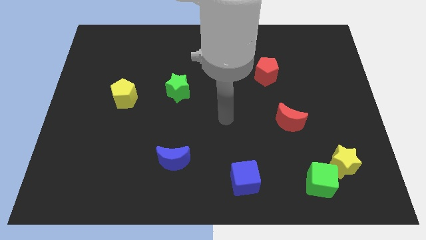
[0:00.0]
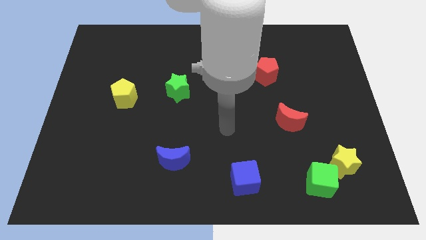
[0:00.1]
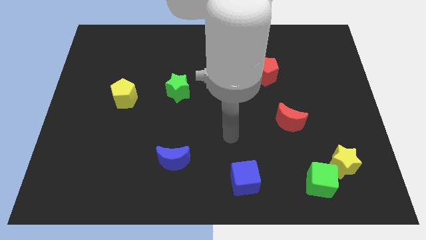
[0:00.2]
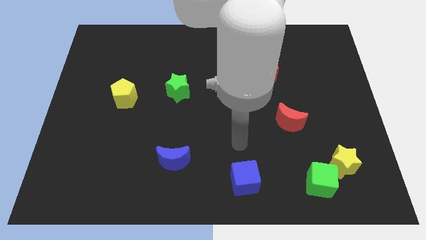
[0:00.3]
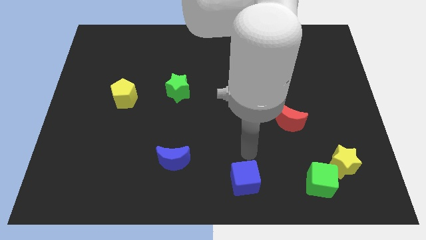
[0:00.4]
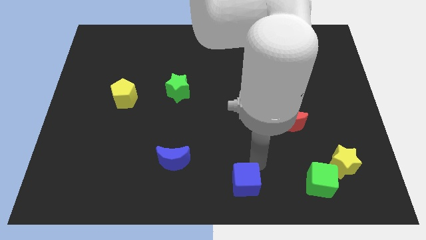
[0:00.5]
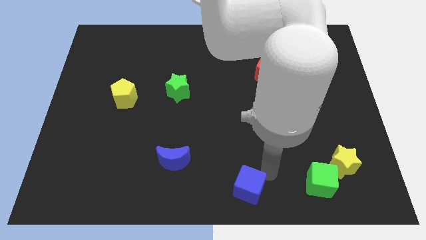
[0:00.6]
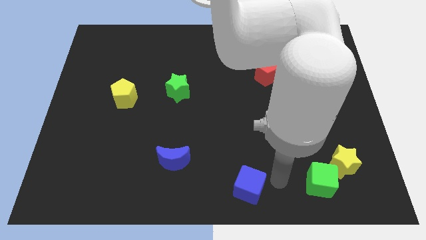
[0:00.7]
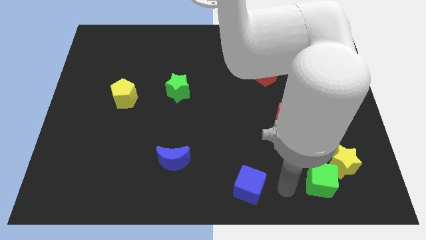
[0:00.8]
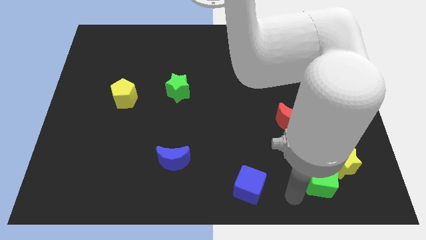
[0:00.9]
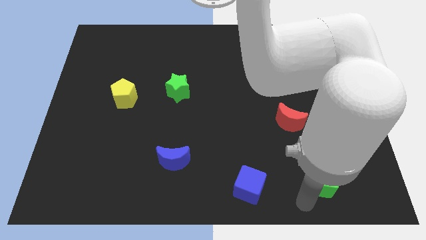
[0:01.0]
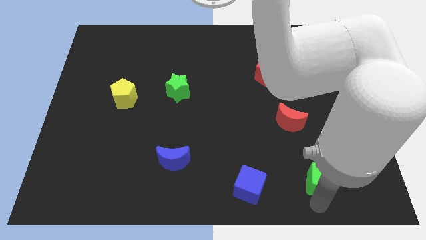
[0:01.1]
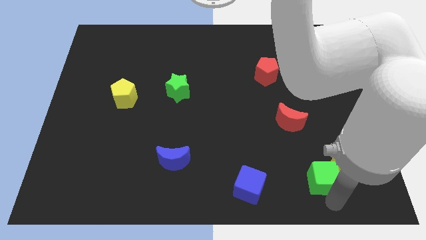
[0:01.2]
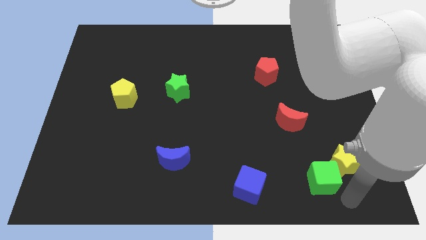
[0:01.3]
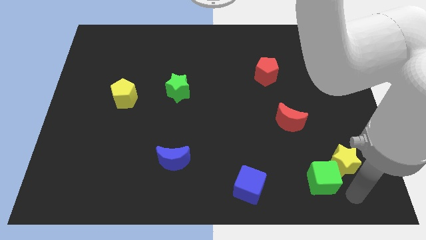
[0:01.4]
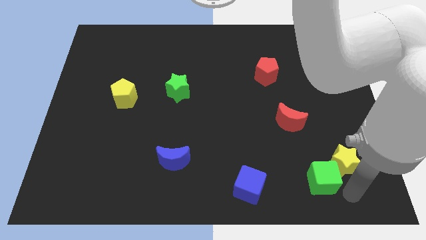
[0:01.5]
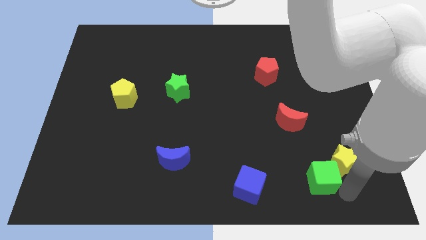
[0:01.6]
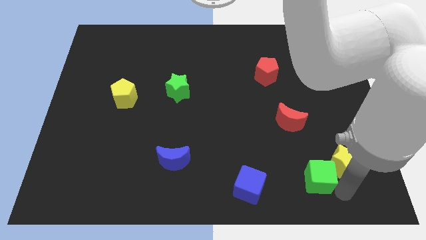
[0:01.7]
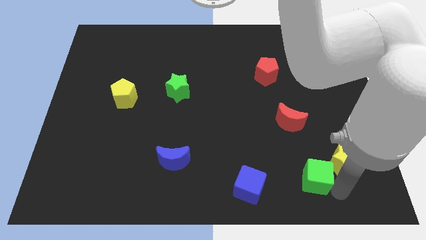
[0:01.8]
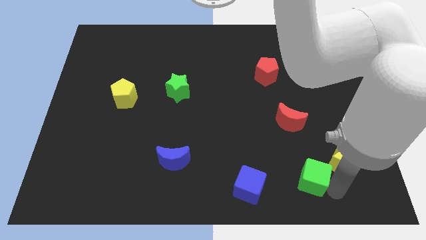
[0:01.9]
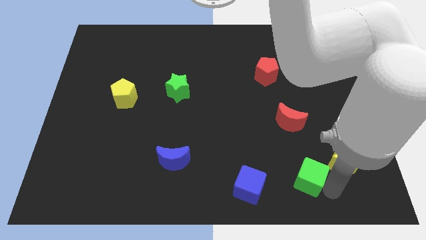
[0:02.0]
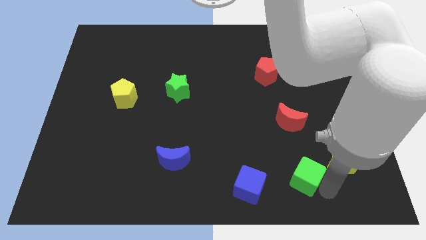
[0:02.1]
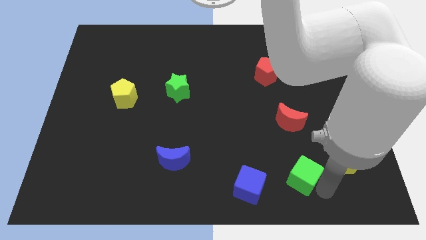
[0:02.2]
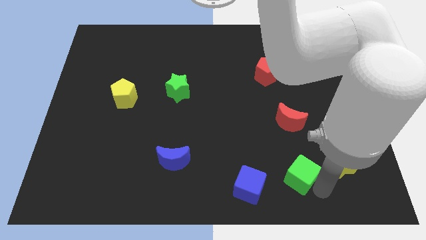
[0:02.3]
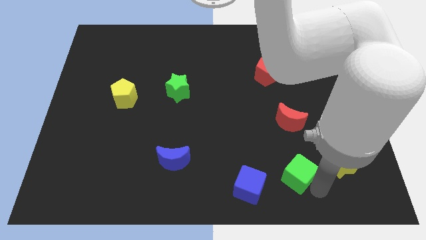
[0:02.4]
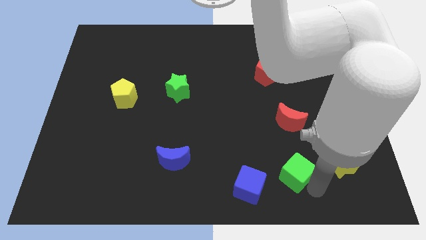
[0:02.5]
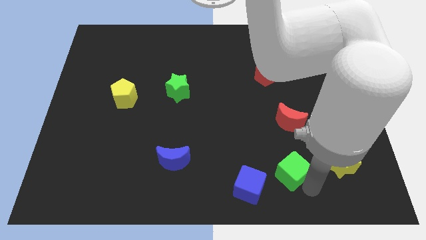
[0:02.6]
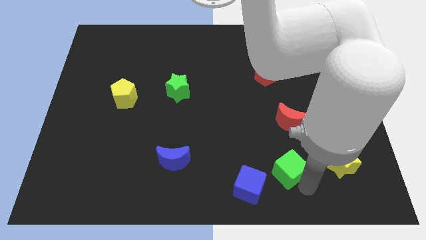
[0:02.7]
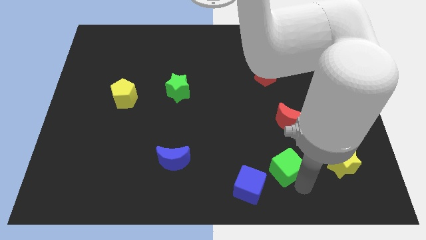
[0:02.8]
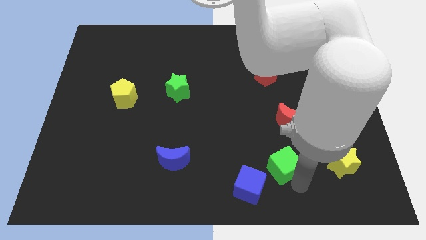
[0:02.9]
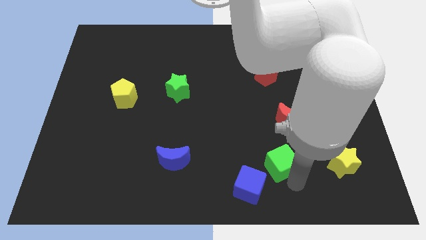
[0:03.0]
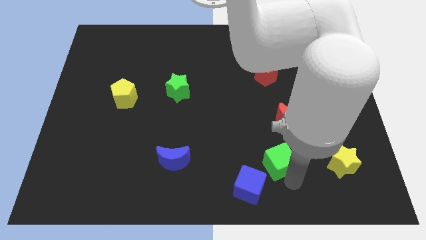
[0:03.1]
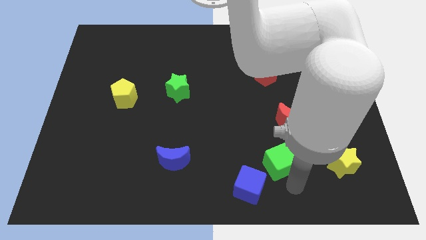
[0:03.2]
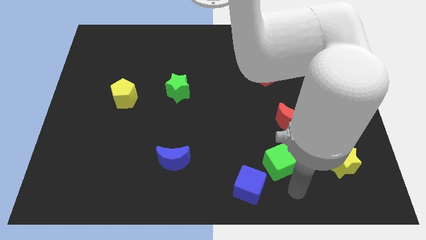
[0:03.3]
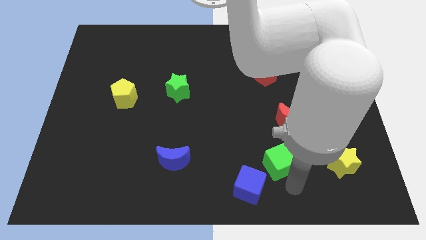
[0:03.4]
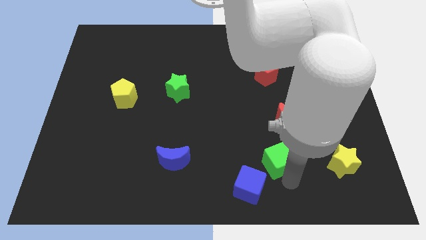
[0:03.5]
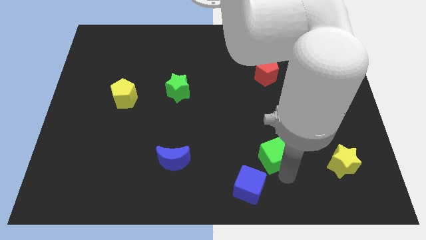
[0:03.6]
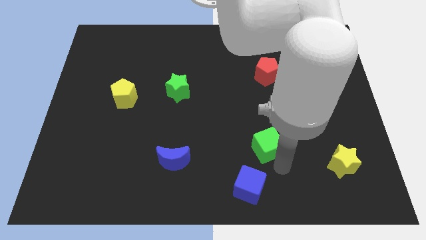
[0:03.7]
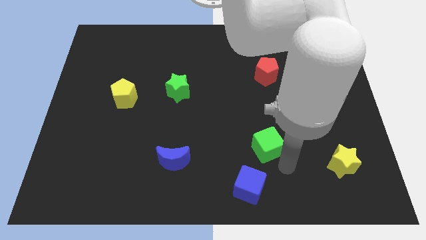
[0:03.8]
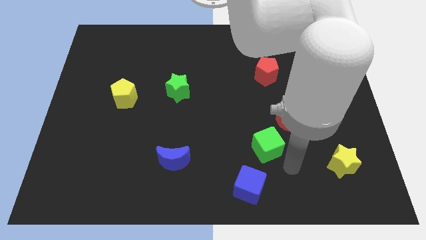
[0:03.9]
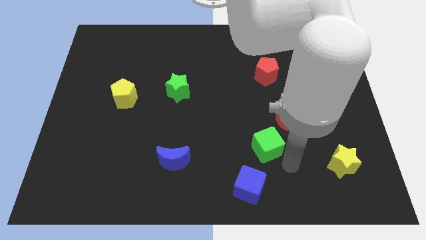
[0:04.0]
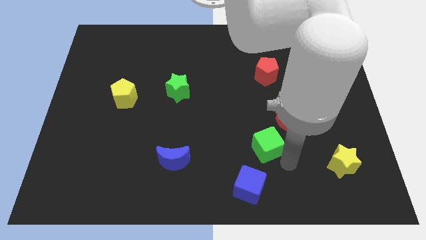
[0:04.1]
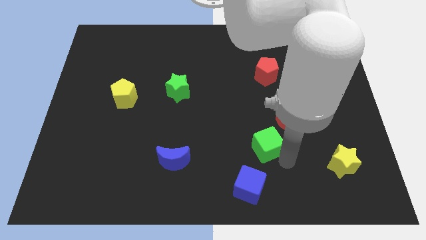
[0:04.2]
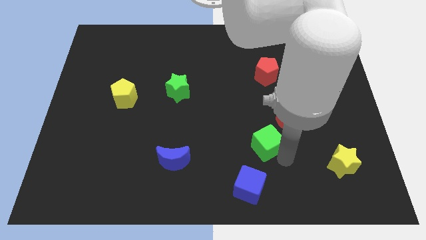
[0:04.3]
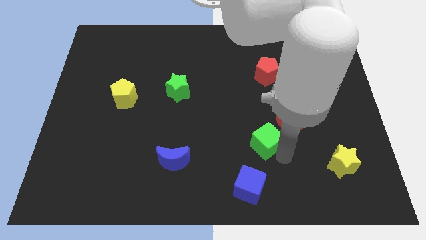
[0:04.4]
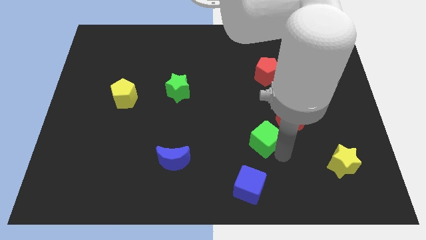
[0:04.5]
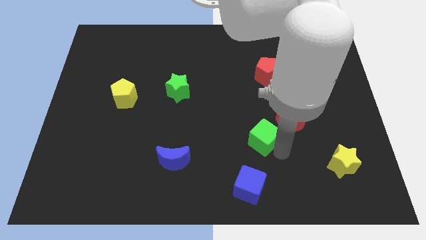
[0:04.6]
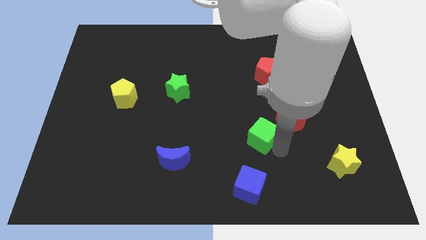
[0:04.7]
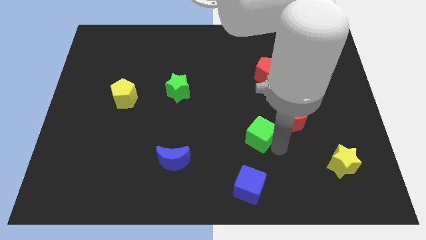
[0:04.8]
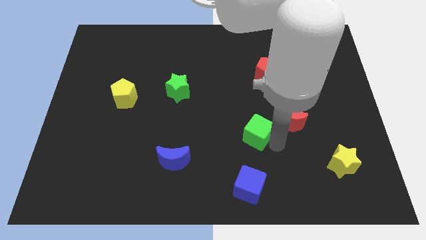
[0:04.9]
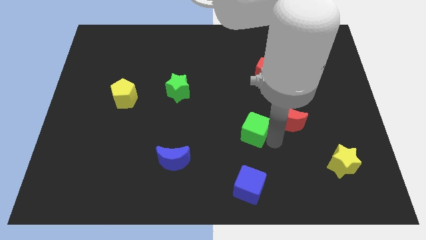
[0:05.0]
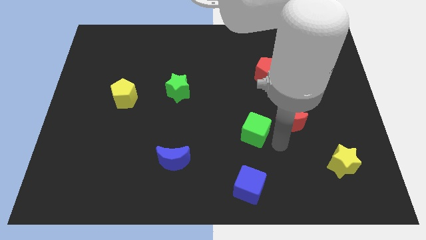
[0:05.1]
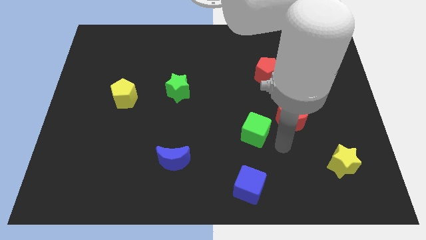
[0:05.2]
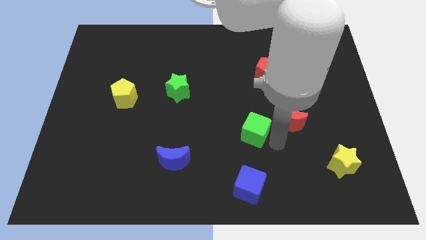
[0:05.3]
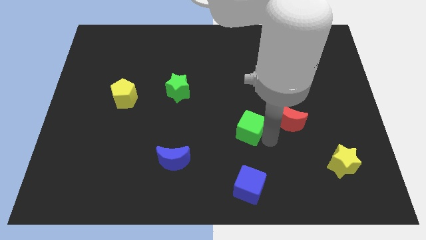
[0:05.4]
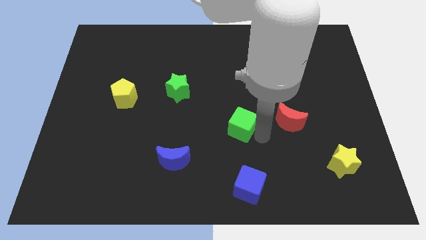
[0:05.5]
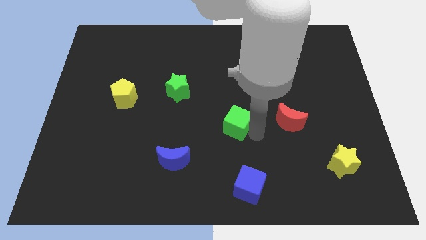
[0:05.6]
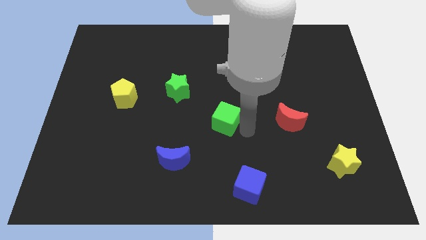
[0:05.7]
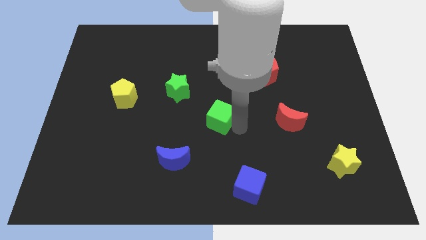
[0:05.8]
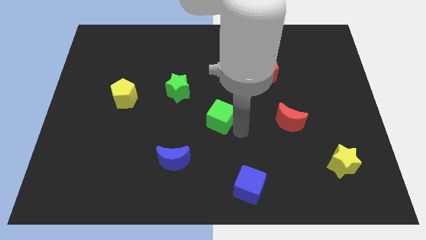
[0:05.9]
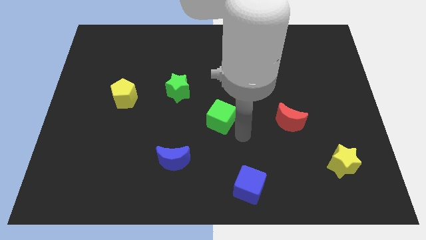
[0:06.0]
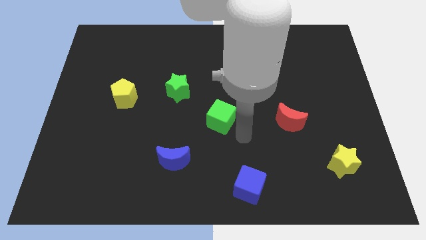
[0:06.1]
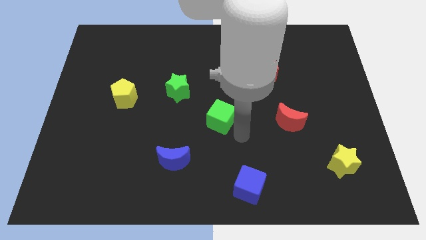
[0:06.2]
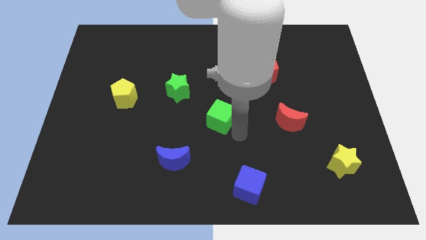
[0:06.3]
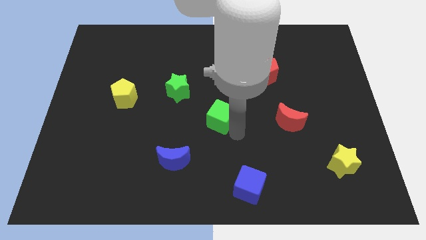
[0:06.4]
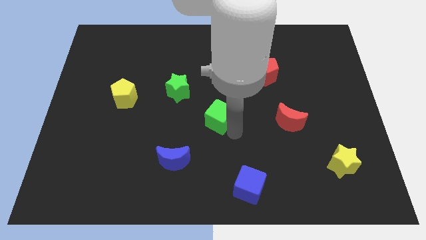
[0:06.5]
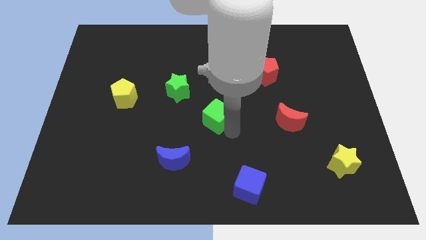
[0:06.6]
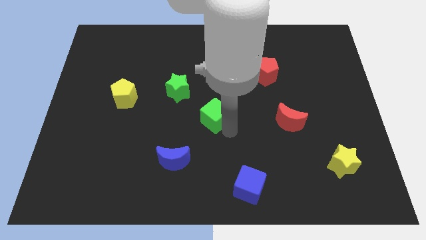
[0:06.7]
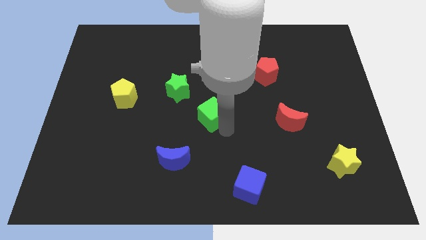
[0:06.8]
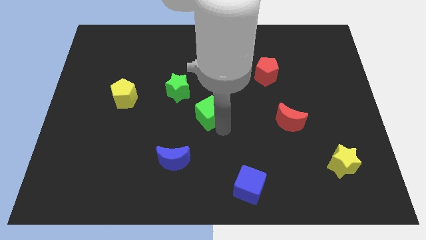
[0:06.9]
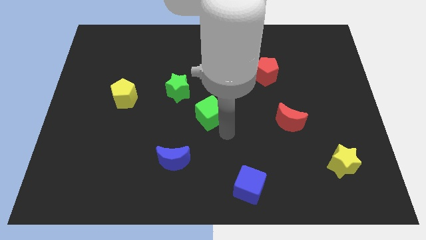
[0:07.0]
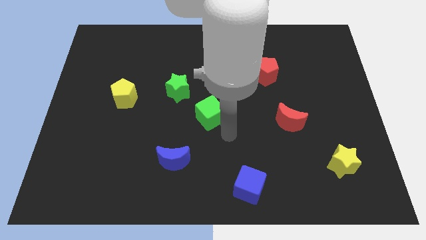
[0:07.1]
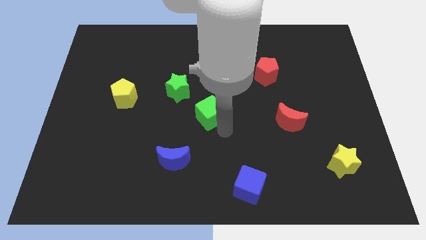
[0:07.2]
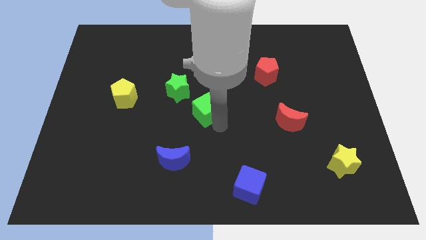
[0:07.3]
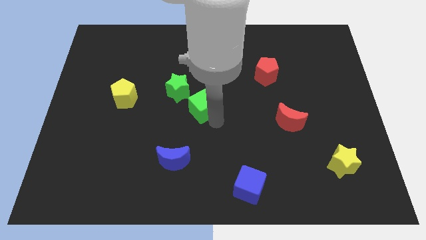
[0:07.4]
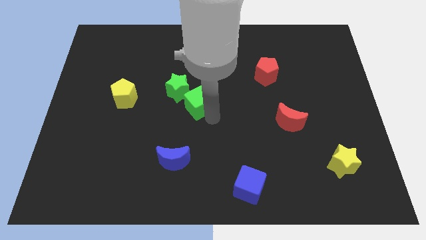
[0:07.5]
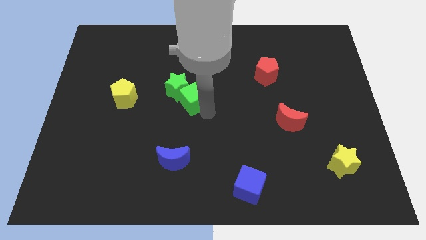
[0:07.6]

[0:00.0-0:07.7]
put the green cube to the green star
